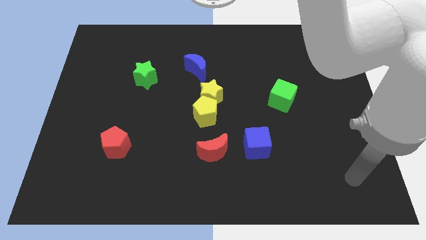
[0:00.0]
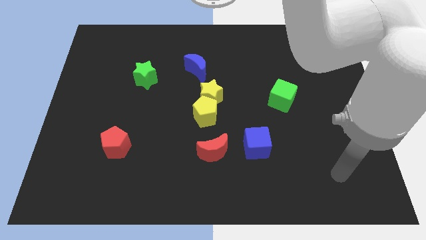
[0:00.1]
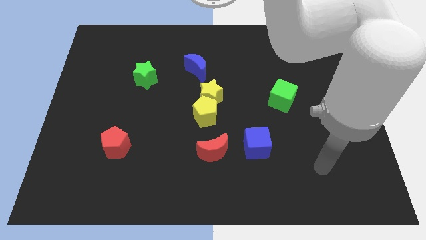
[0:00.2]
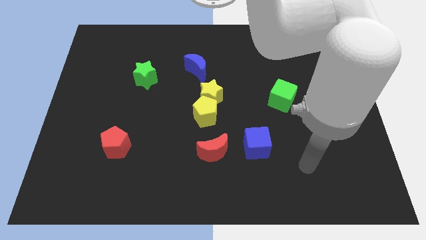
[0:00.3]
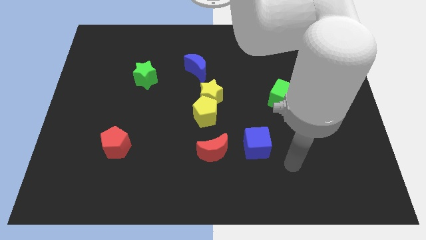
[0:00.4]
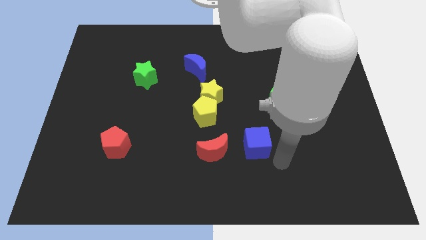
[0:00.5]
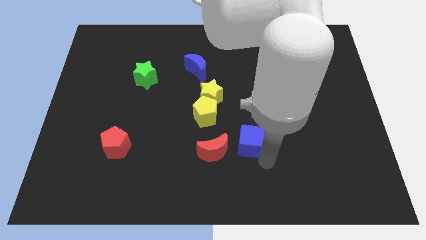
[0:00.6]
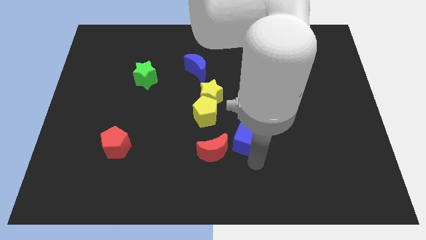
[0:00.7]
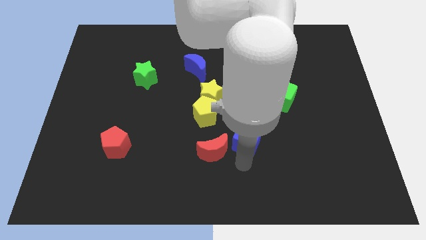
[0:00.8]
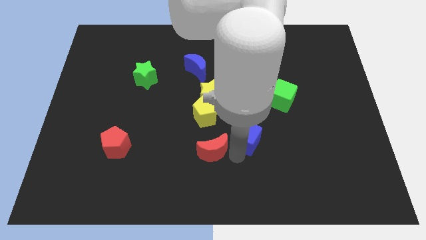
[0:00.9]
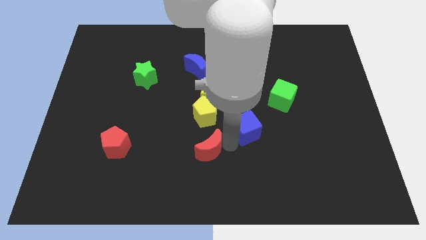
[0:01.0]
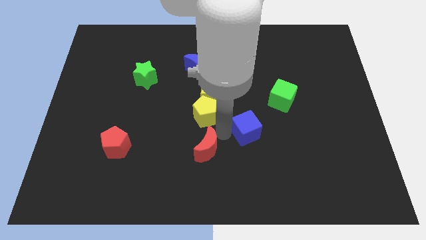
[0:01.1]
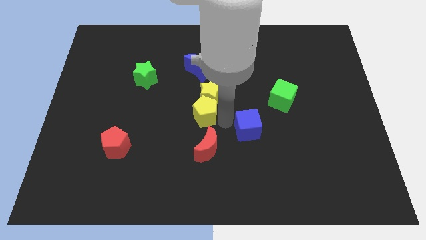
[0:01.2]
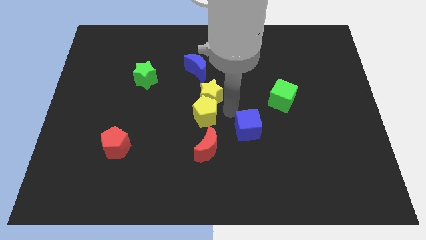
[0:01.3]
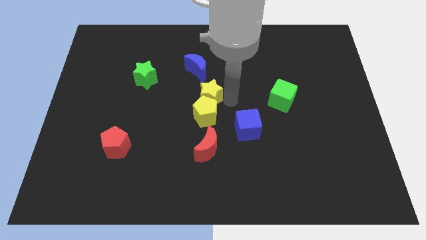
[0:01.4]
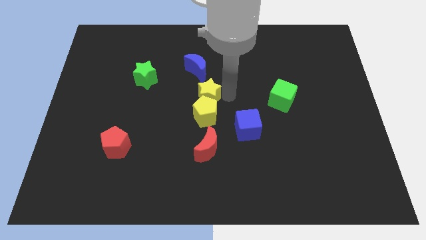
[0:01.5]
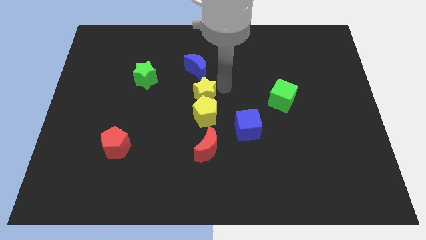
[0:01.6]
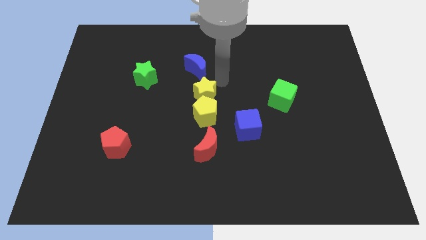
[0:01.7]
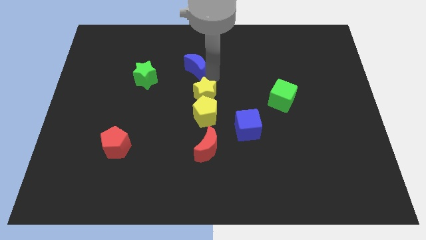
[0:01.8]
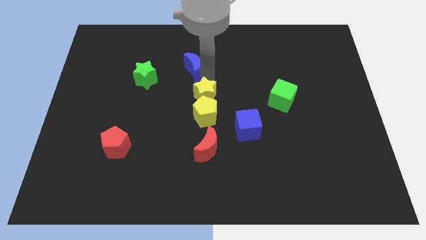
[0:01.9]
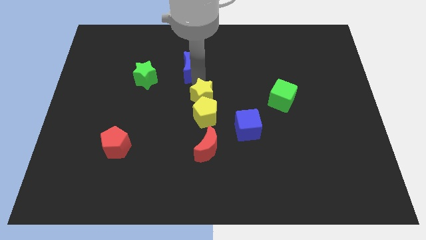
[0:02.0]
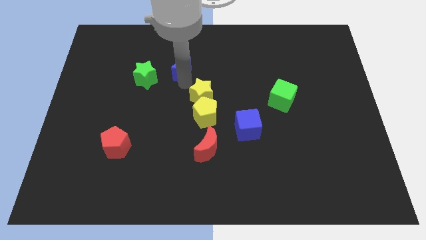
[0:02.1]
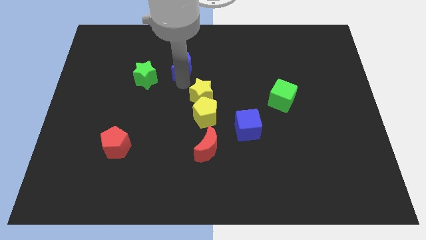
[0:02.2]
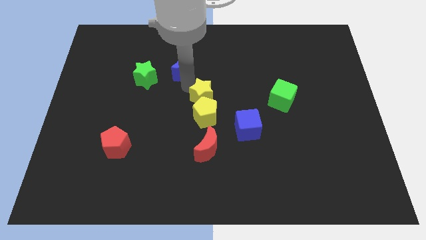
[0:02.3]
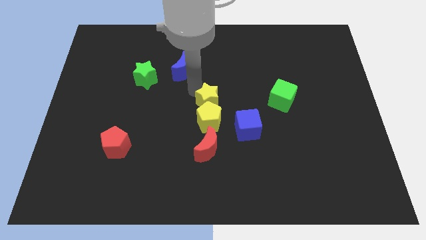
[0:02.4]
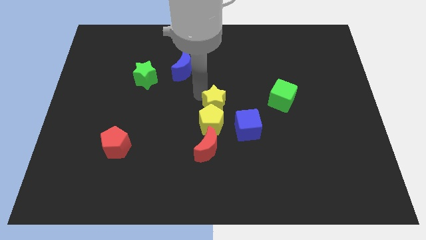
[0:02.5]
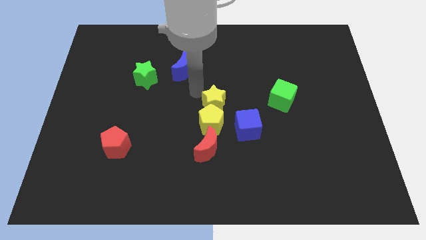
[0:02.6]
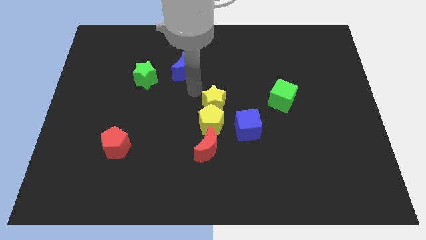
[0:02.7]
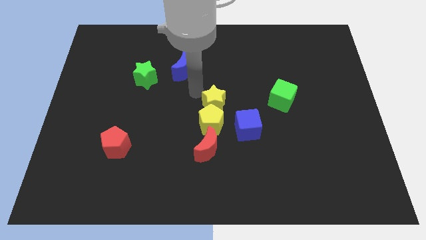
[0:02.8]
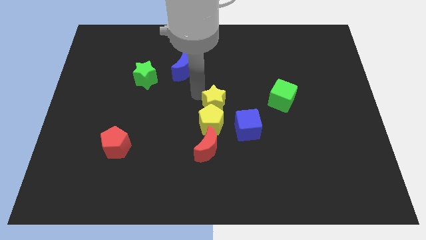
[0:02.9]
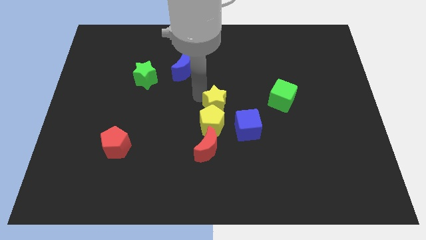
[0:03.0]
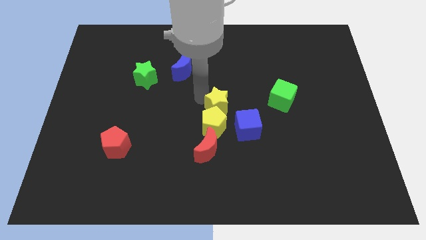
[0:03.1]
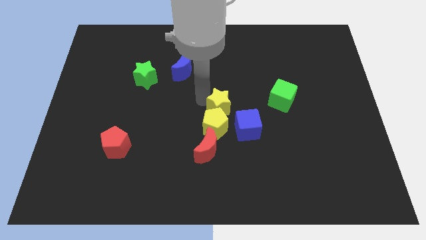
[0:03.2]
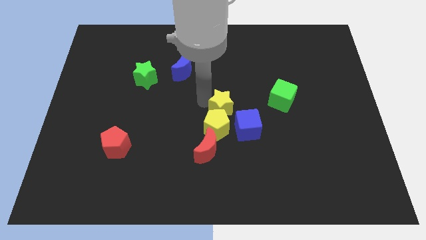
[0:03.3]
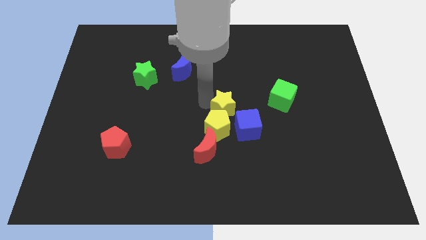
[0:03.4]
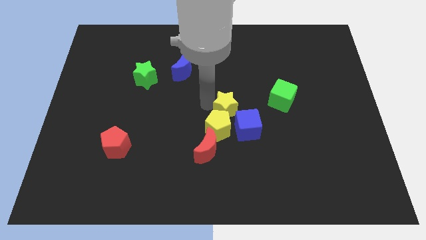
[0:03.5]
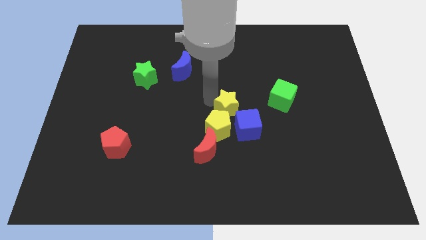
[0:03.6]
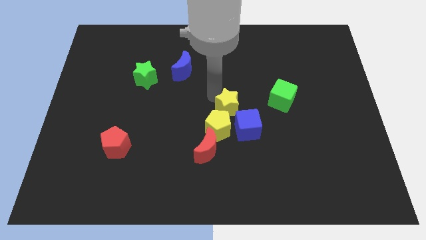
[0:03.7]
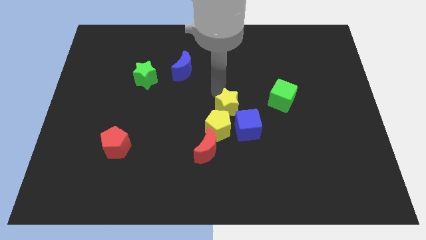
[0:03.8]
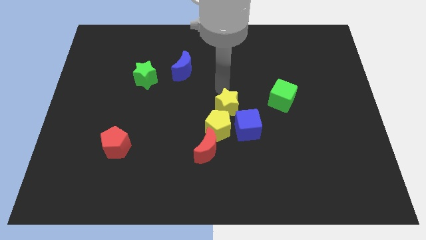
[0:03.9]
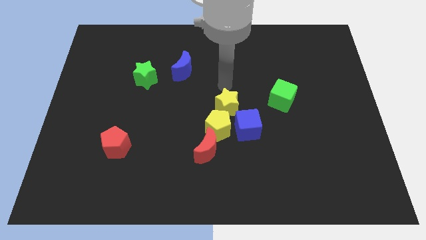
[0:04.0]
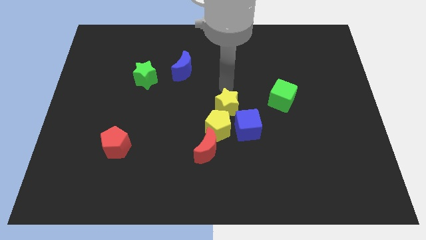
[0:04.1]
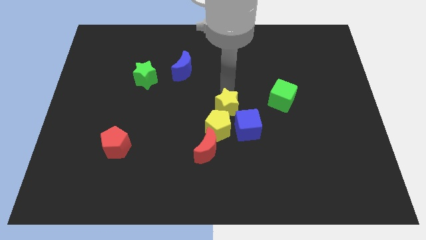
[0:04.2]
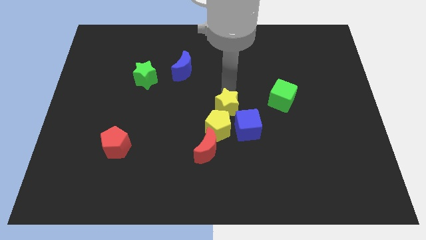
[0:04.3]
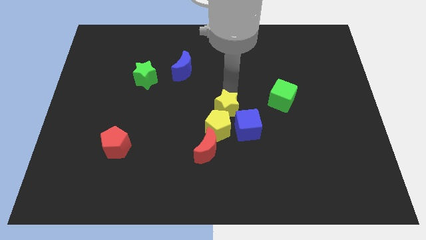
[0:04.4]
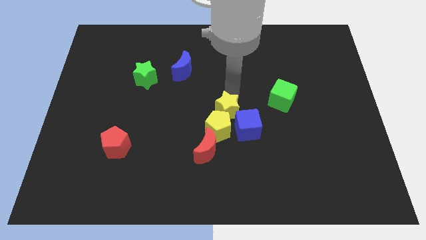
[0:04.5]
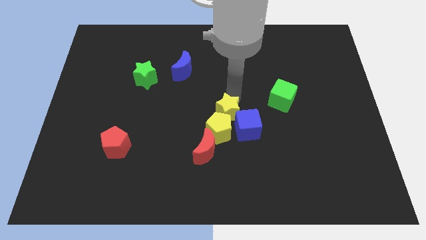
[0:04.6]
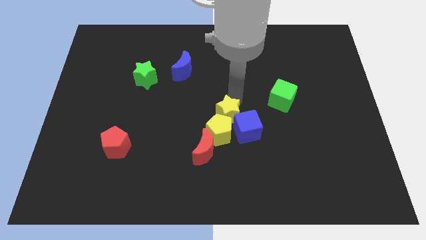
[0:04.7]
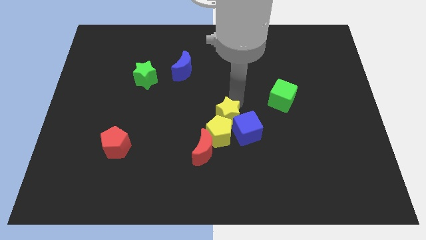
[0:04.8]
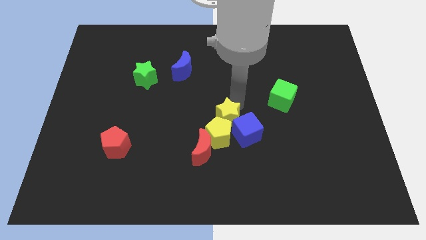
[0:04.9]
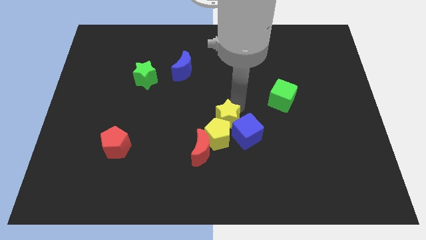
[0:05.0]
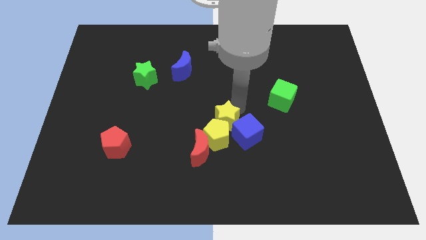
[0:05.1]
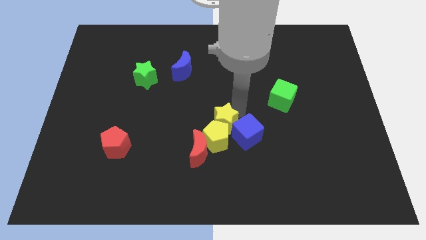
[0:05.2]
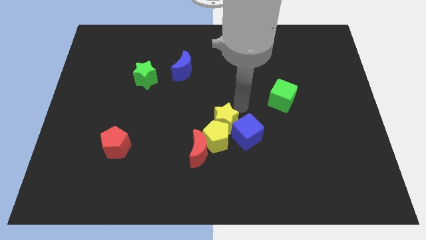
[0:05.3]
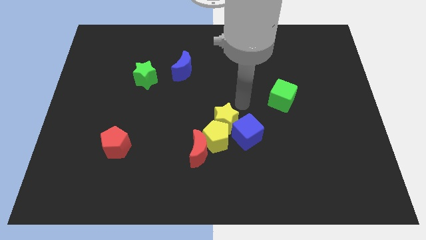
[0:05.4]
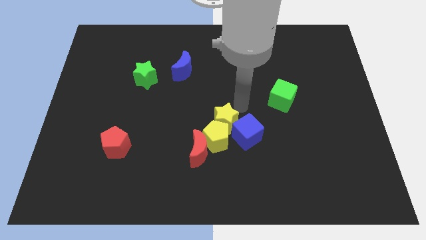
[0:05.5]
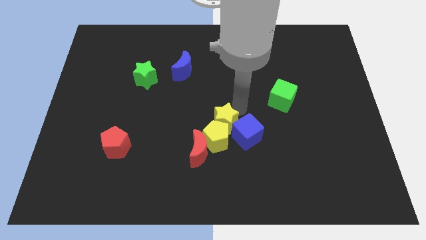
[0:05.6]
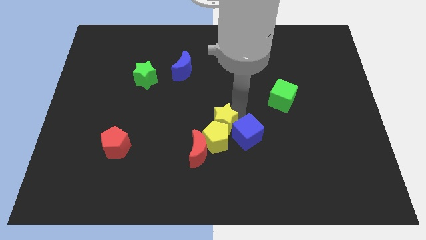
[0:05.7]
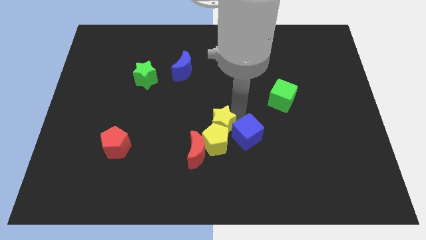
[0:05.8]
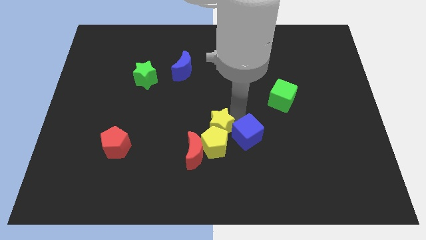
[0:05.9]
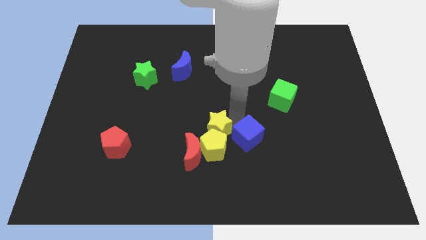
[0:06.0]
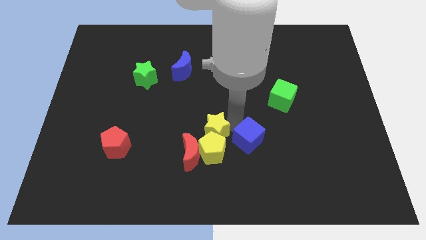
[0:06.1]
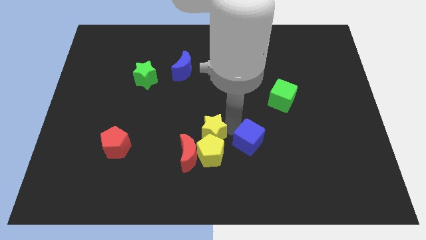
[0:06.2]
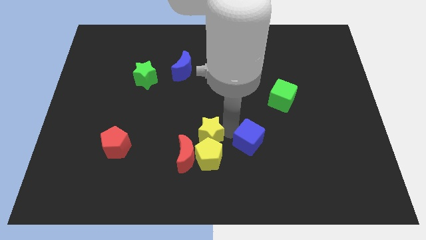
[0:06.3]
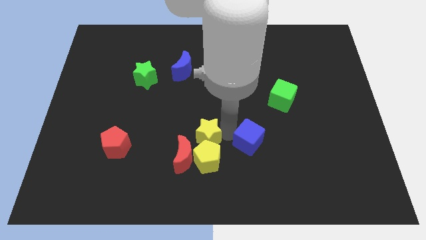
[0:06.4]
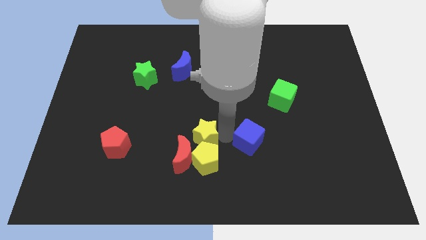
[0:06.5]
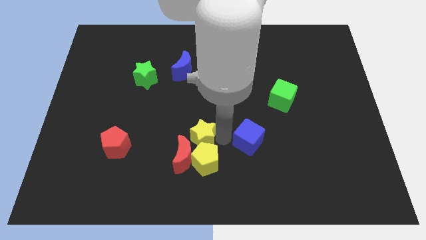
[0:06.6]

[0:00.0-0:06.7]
slide the yellow star next to the red moon

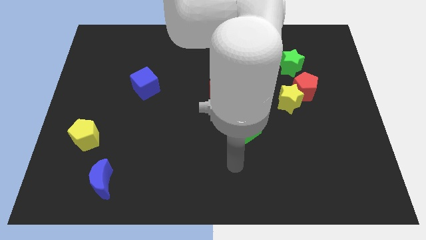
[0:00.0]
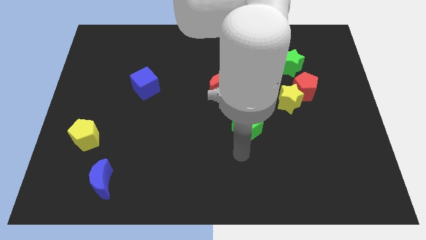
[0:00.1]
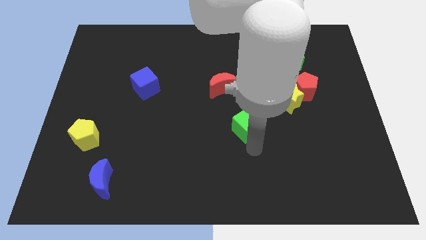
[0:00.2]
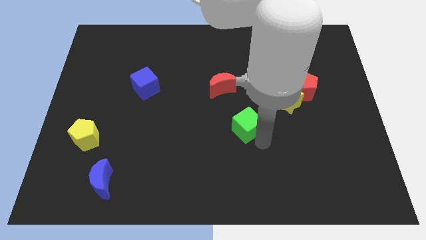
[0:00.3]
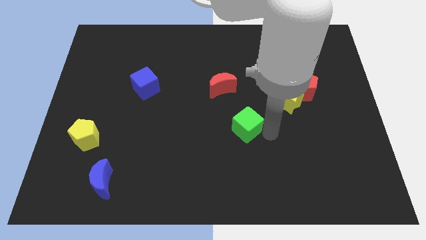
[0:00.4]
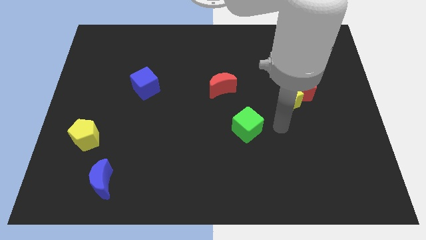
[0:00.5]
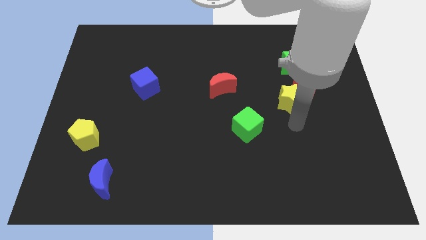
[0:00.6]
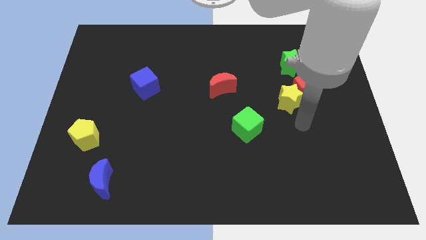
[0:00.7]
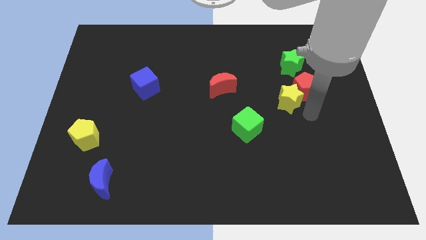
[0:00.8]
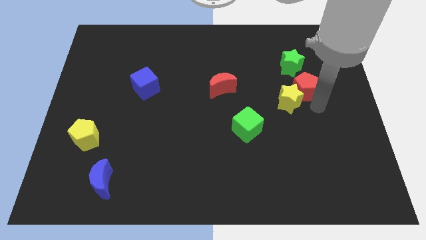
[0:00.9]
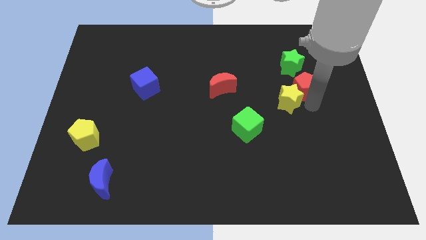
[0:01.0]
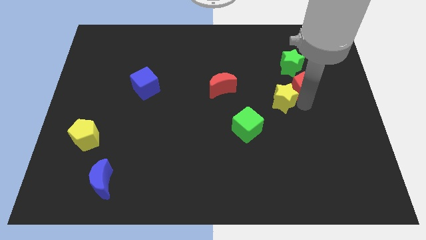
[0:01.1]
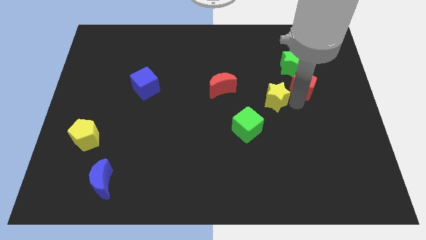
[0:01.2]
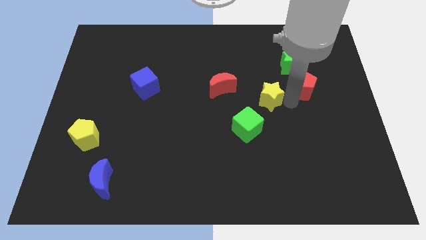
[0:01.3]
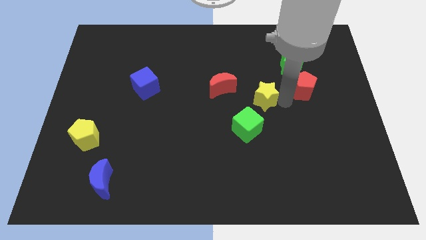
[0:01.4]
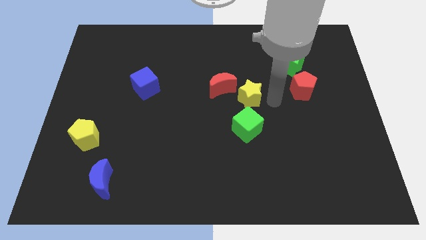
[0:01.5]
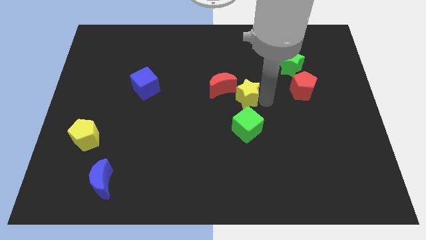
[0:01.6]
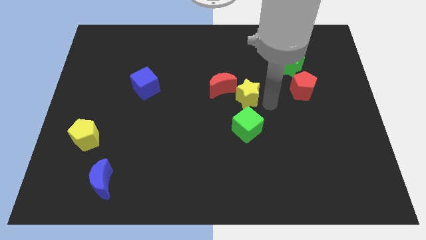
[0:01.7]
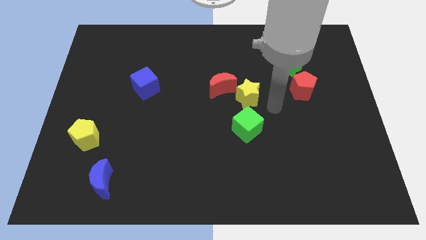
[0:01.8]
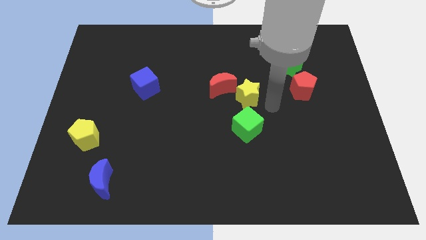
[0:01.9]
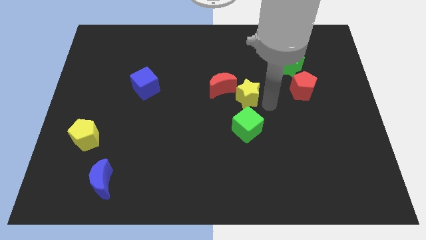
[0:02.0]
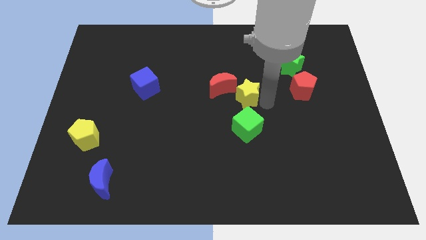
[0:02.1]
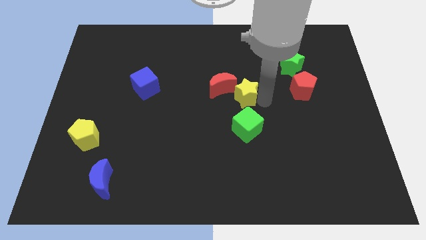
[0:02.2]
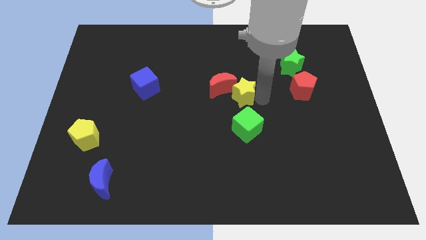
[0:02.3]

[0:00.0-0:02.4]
slide the yellow star to the red moon
